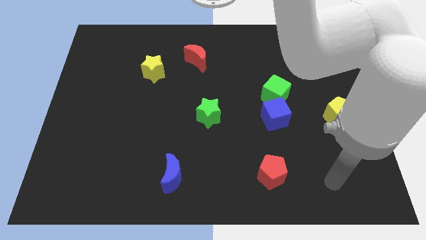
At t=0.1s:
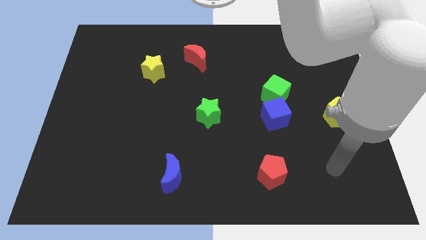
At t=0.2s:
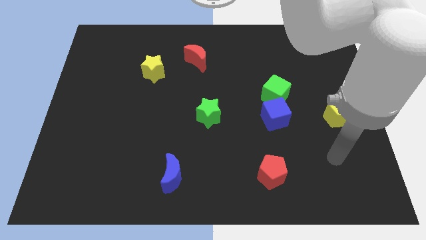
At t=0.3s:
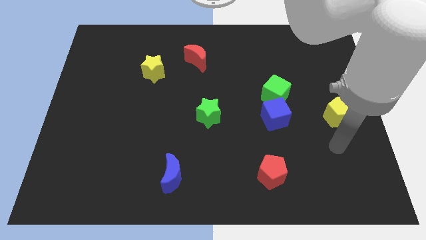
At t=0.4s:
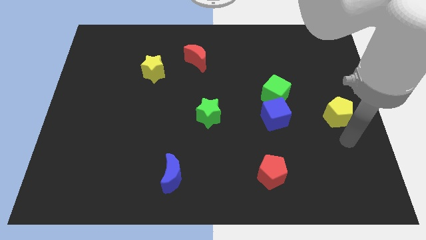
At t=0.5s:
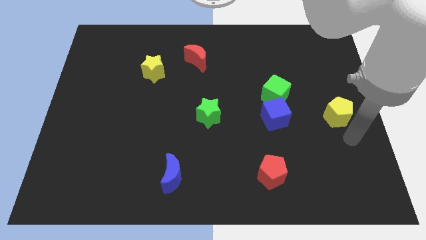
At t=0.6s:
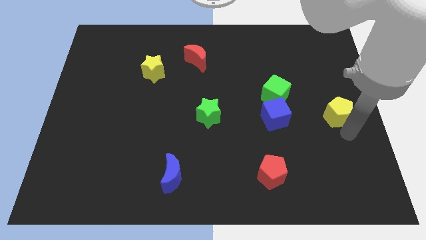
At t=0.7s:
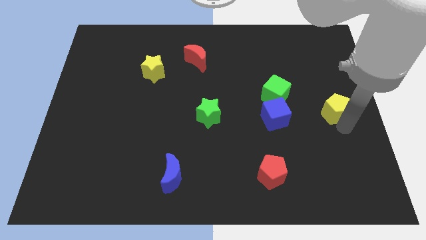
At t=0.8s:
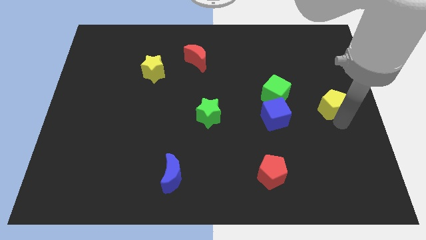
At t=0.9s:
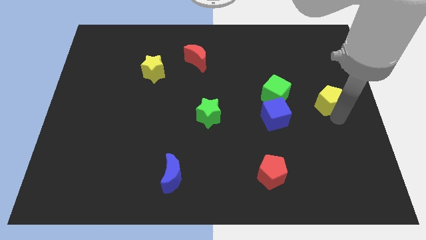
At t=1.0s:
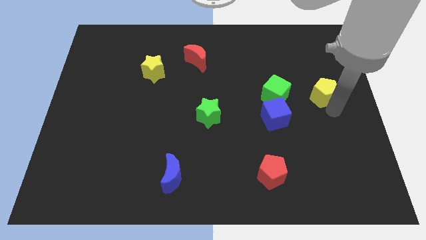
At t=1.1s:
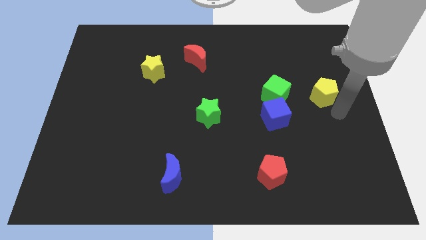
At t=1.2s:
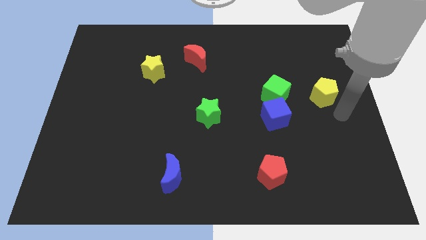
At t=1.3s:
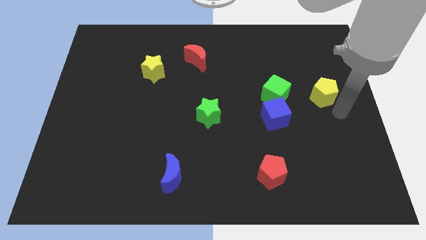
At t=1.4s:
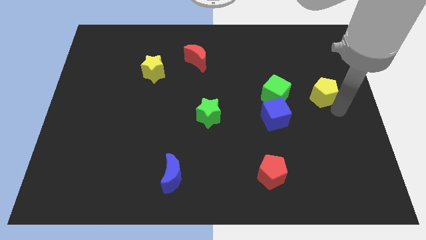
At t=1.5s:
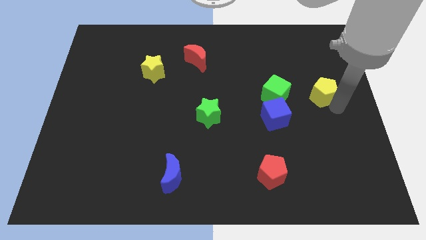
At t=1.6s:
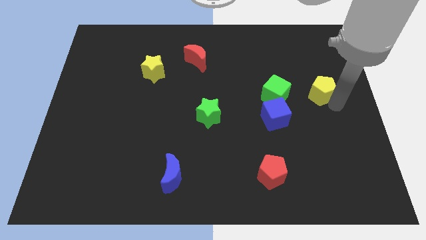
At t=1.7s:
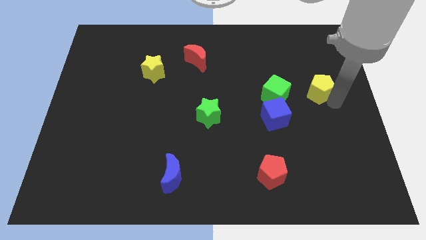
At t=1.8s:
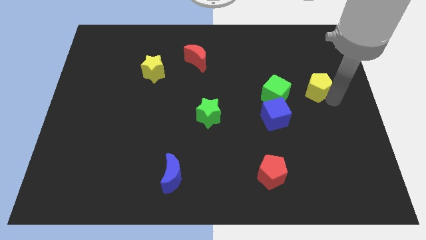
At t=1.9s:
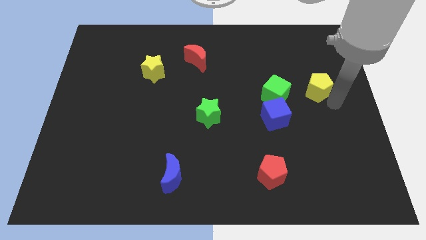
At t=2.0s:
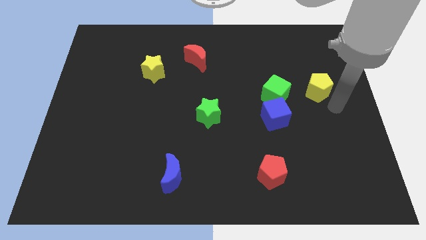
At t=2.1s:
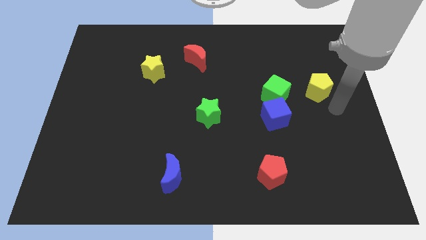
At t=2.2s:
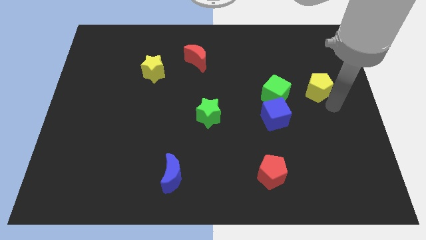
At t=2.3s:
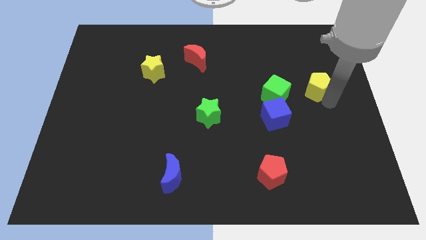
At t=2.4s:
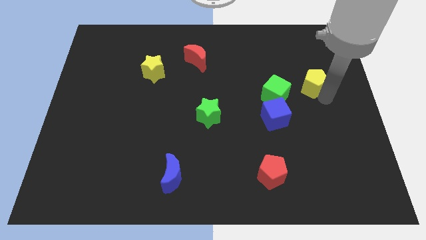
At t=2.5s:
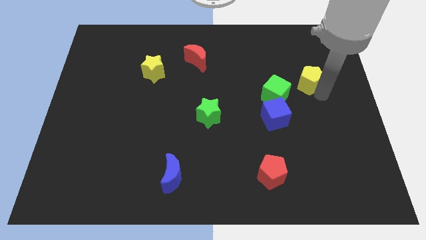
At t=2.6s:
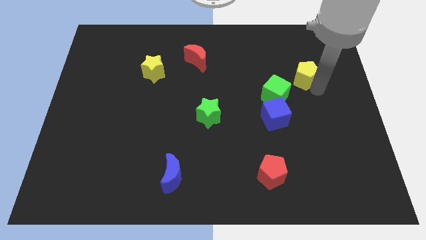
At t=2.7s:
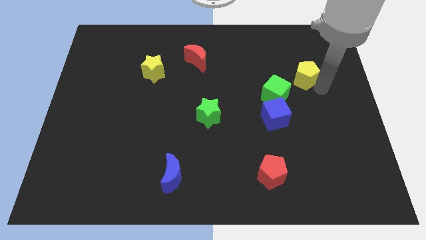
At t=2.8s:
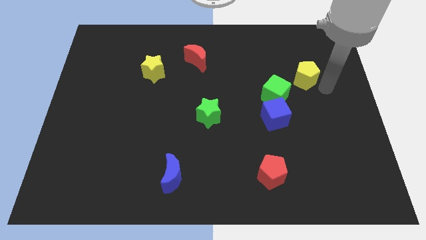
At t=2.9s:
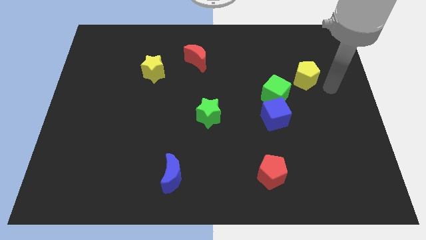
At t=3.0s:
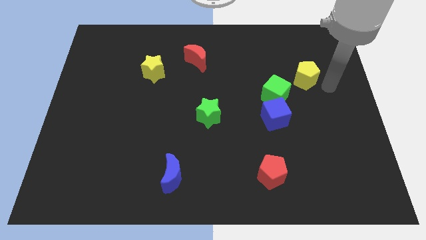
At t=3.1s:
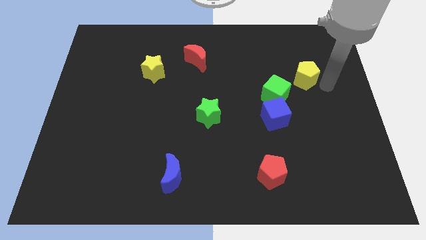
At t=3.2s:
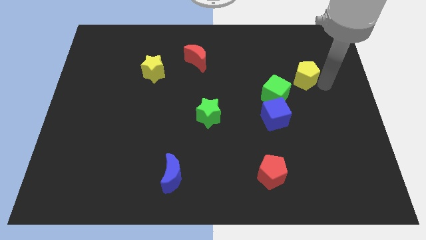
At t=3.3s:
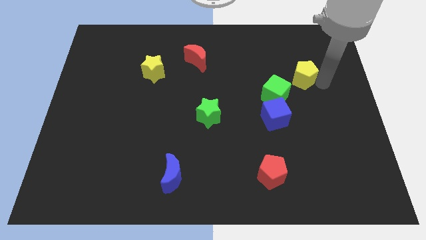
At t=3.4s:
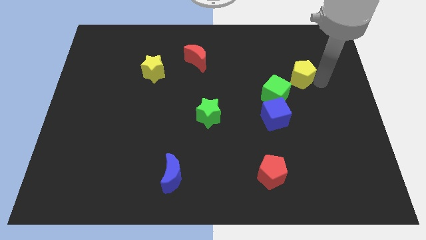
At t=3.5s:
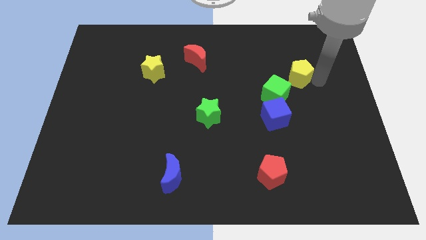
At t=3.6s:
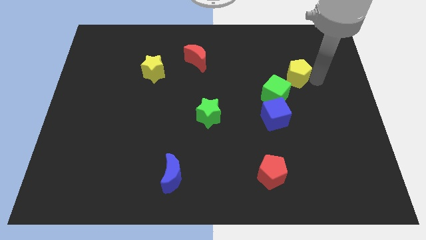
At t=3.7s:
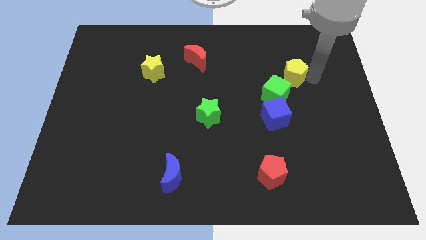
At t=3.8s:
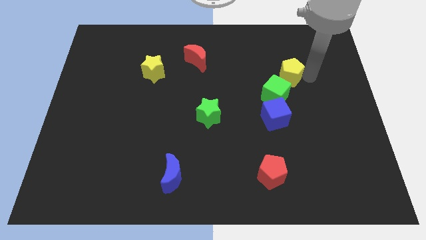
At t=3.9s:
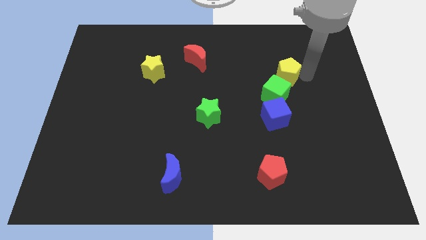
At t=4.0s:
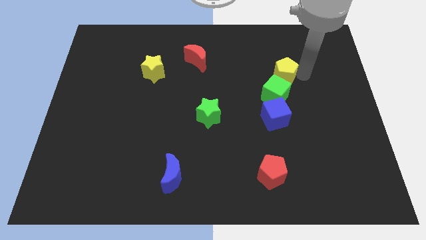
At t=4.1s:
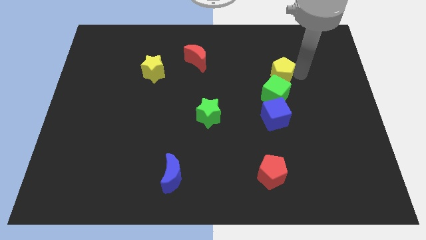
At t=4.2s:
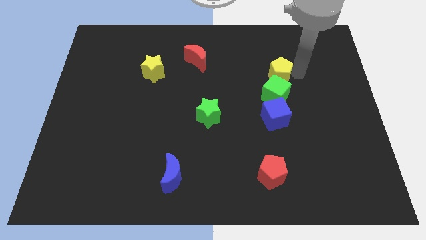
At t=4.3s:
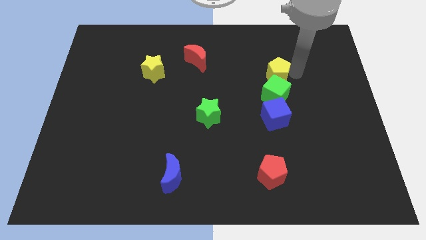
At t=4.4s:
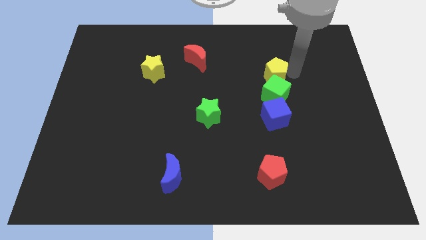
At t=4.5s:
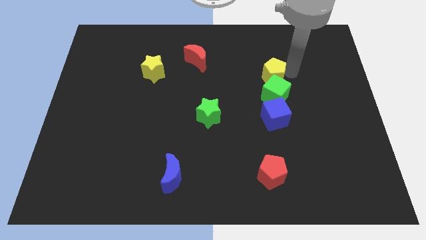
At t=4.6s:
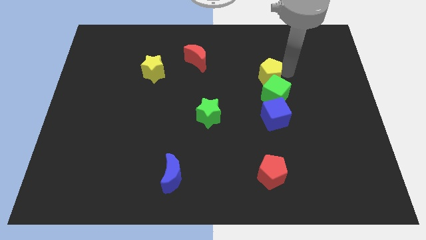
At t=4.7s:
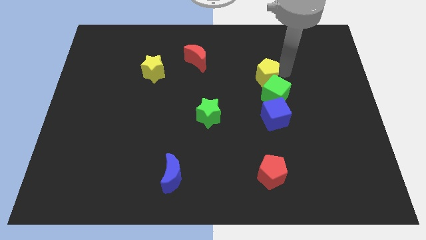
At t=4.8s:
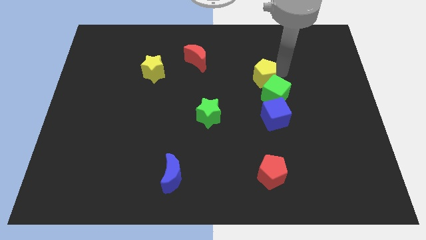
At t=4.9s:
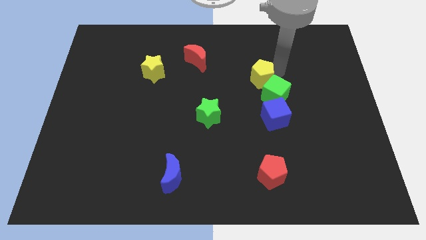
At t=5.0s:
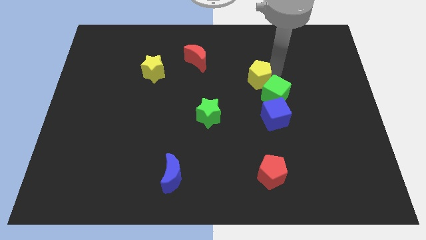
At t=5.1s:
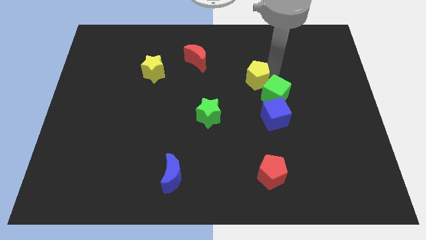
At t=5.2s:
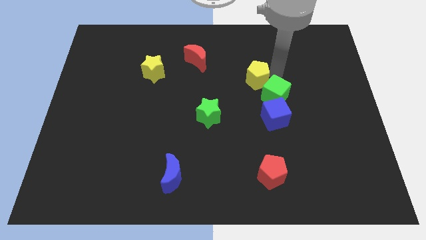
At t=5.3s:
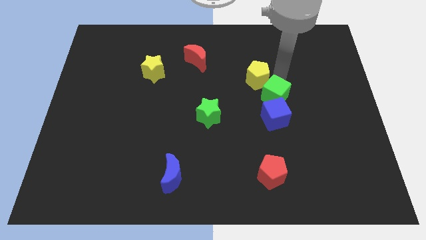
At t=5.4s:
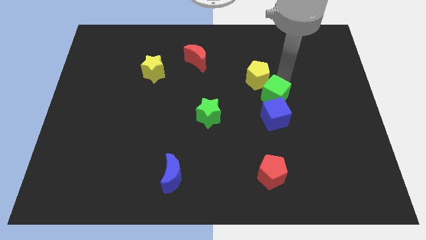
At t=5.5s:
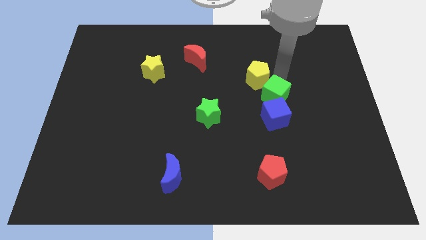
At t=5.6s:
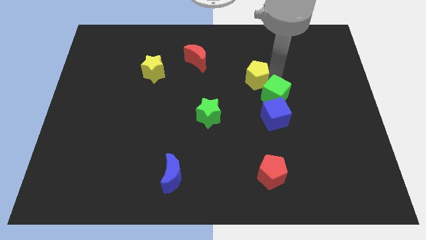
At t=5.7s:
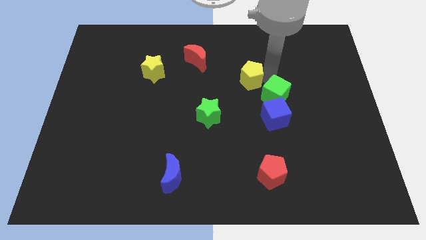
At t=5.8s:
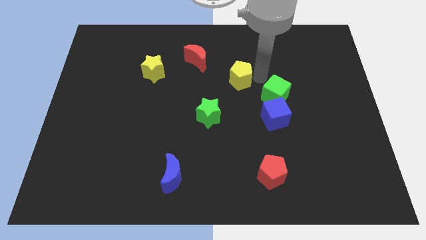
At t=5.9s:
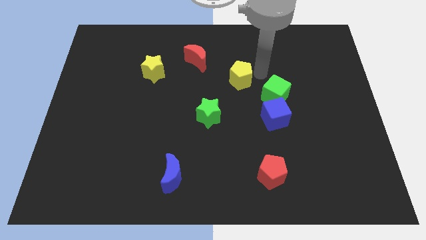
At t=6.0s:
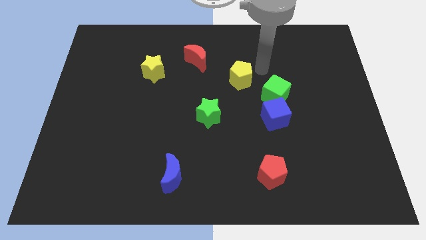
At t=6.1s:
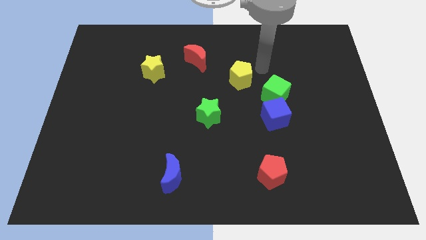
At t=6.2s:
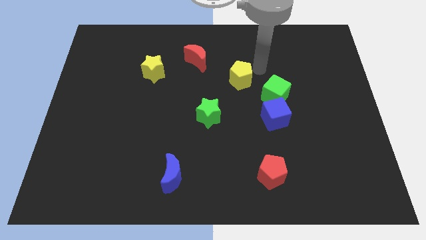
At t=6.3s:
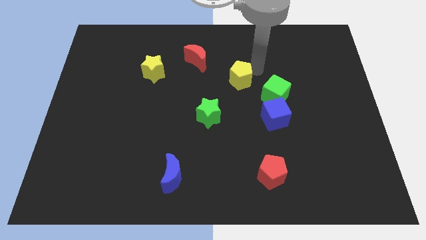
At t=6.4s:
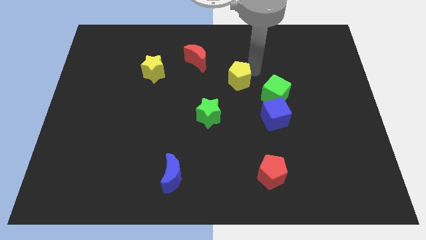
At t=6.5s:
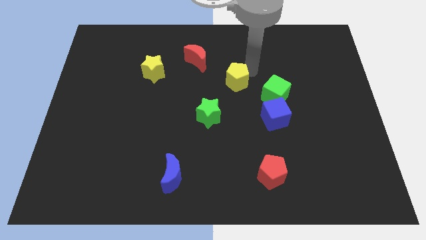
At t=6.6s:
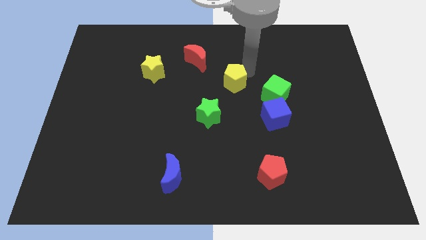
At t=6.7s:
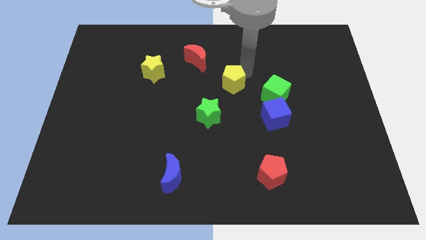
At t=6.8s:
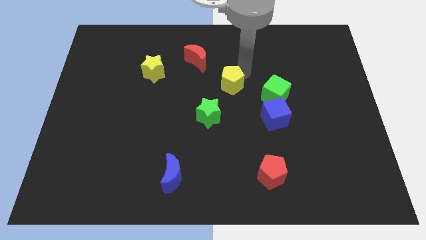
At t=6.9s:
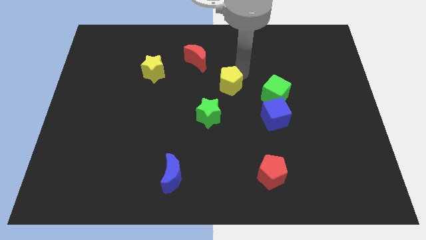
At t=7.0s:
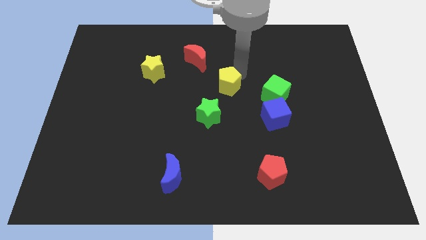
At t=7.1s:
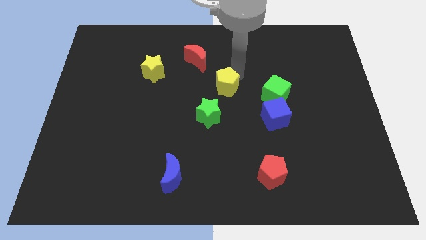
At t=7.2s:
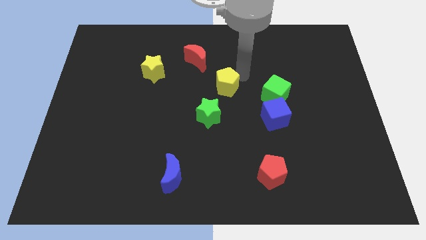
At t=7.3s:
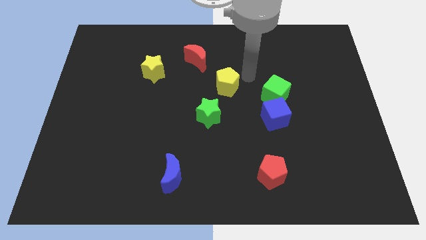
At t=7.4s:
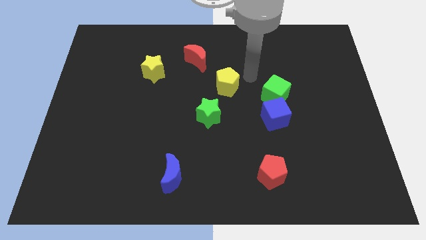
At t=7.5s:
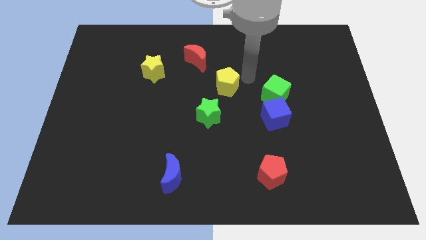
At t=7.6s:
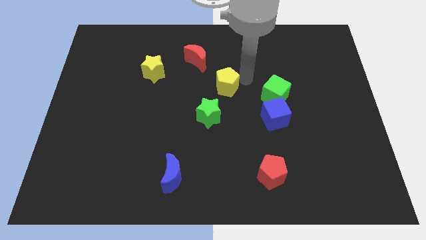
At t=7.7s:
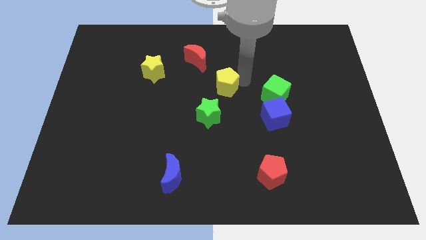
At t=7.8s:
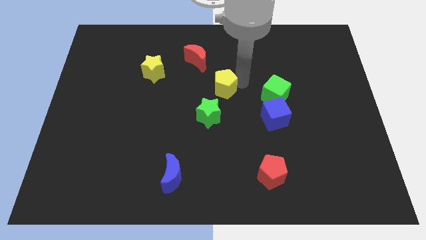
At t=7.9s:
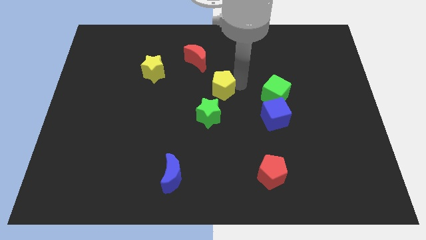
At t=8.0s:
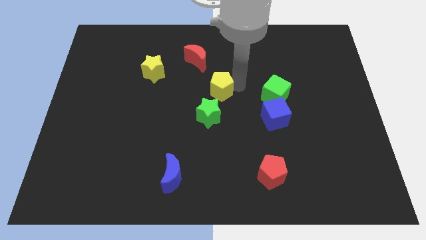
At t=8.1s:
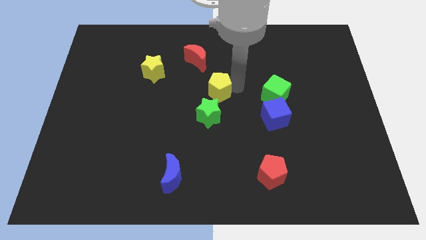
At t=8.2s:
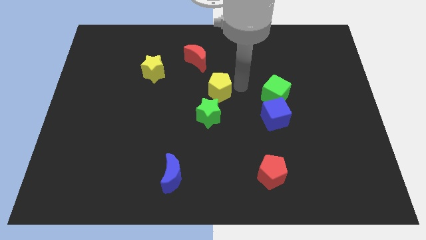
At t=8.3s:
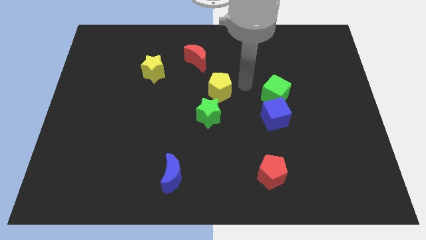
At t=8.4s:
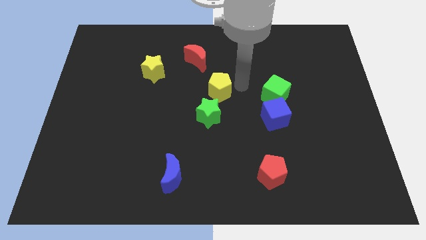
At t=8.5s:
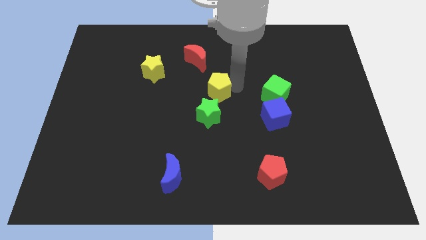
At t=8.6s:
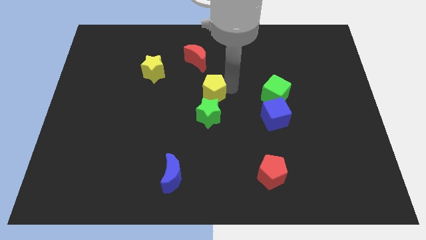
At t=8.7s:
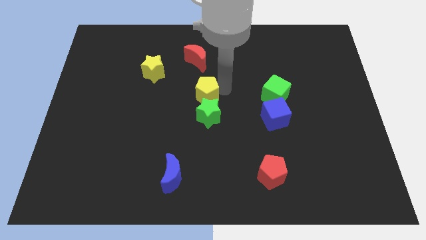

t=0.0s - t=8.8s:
push the yellow pentagon to the top left side of the green star
